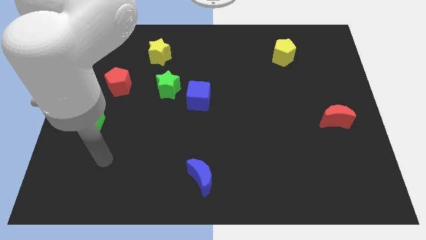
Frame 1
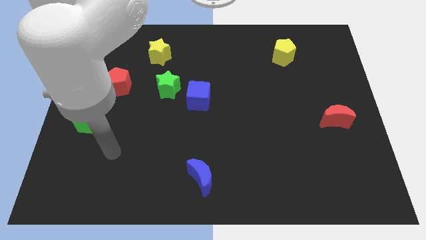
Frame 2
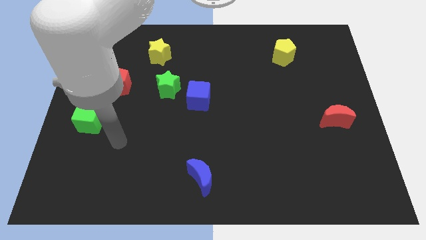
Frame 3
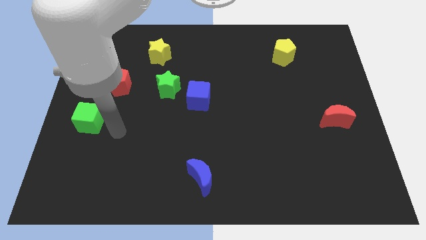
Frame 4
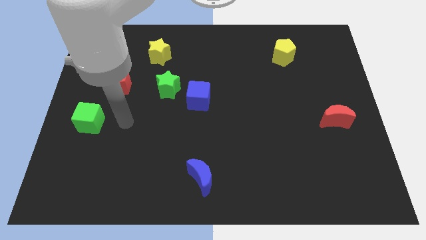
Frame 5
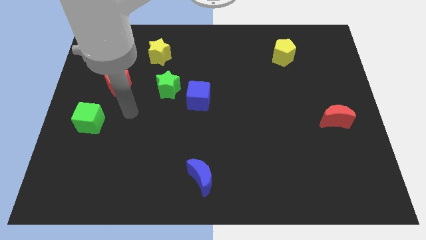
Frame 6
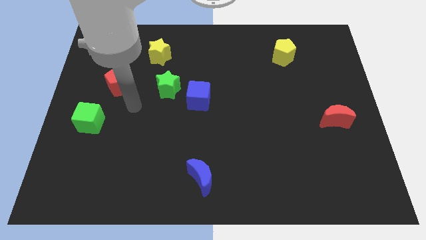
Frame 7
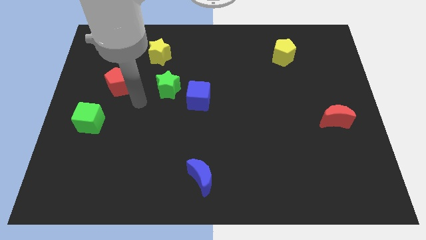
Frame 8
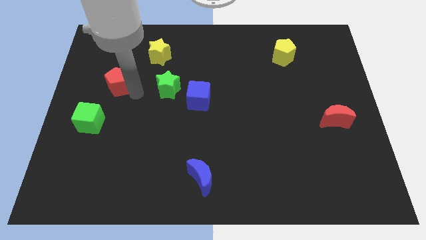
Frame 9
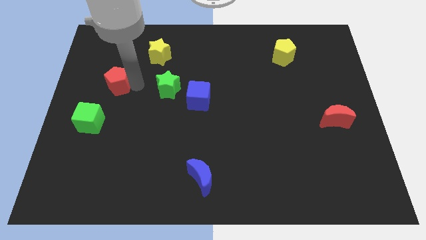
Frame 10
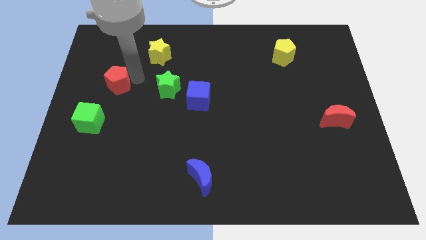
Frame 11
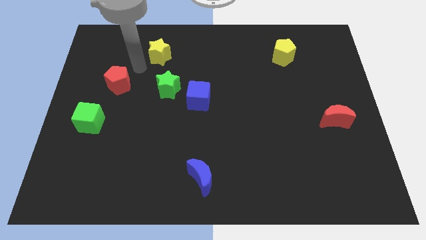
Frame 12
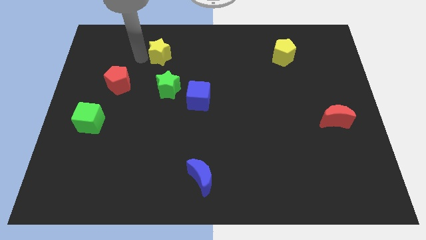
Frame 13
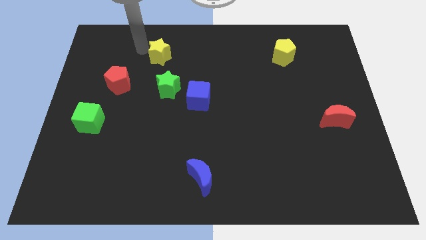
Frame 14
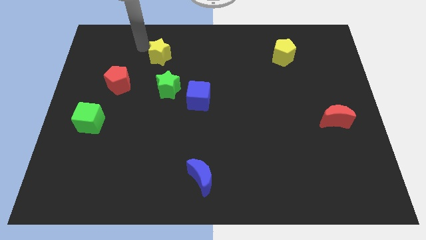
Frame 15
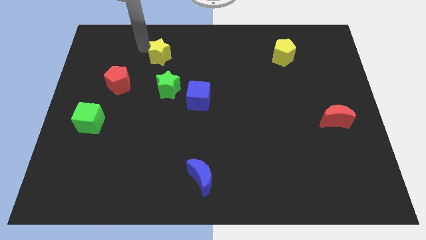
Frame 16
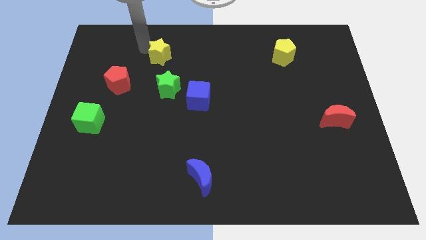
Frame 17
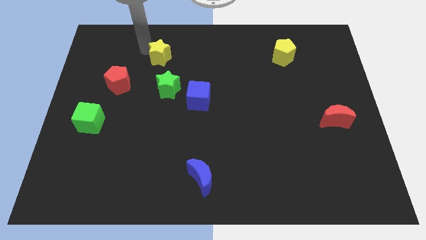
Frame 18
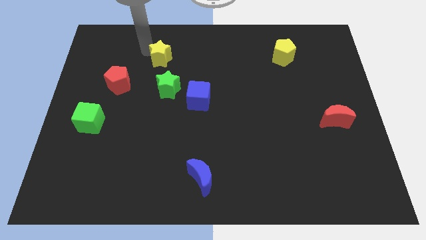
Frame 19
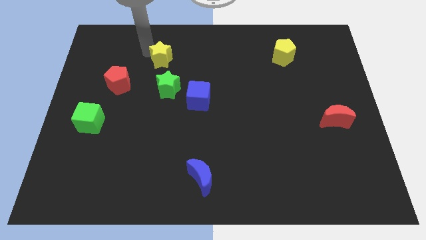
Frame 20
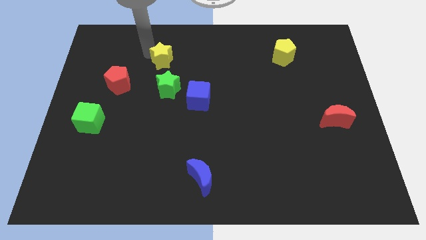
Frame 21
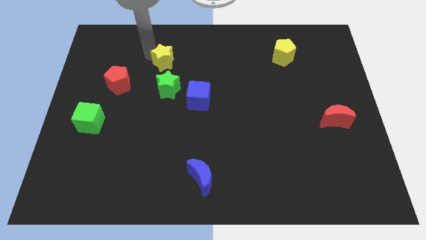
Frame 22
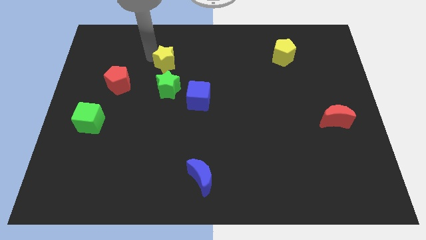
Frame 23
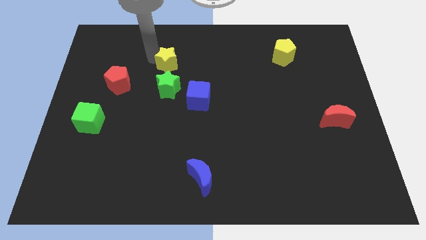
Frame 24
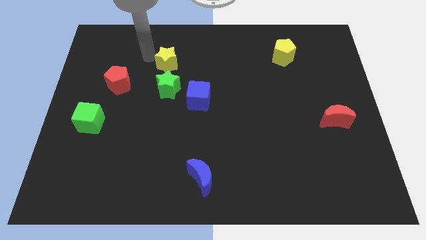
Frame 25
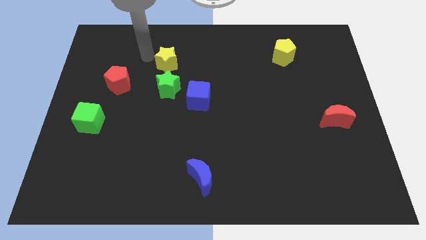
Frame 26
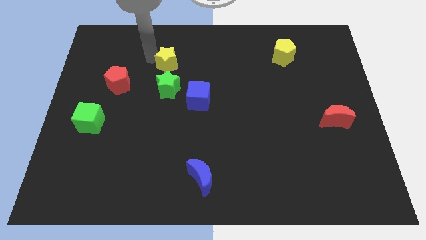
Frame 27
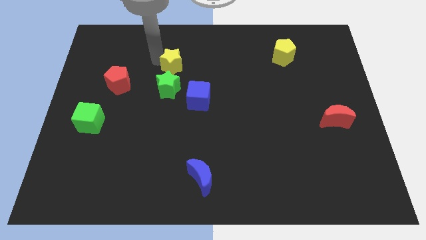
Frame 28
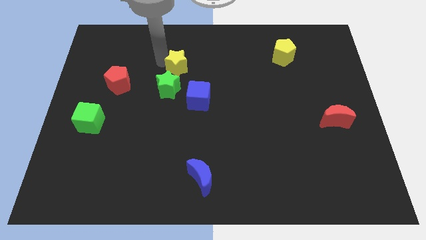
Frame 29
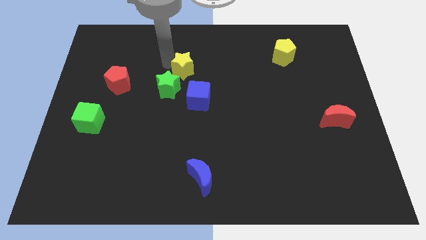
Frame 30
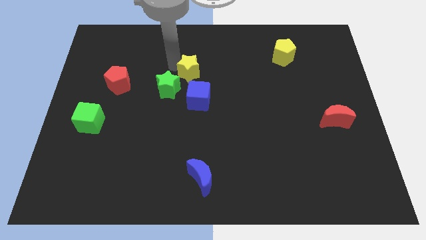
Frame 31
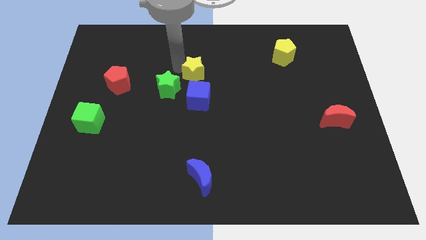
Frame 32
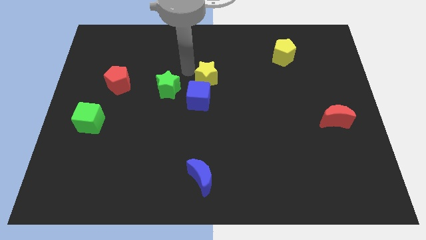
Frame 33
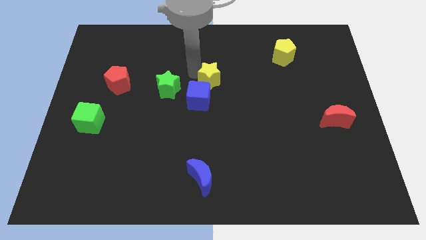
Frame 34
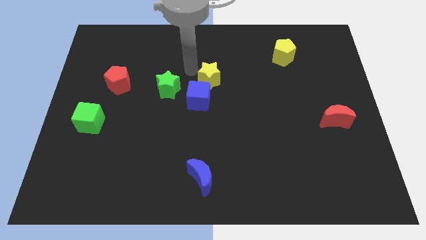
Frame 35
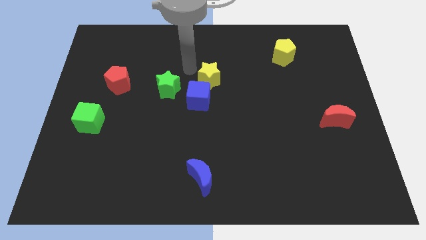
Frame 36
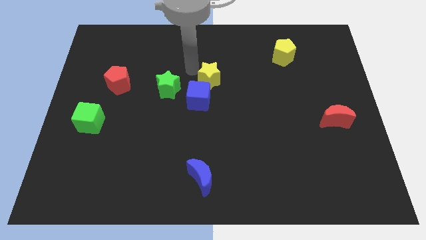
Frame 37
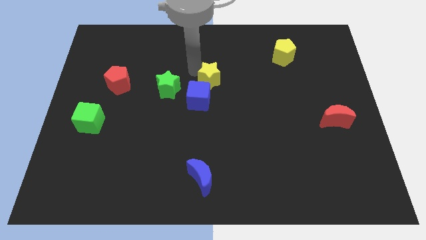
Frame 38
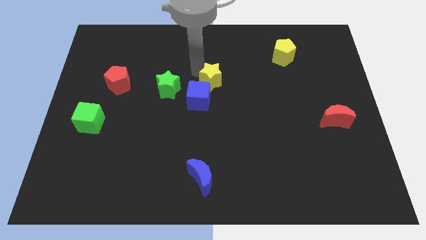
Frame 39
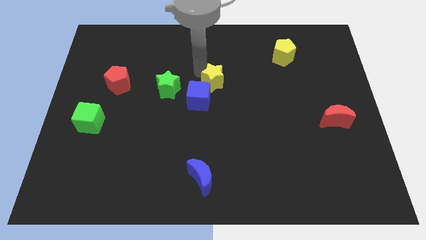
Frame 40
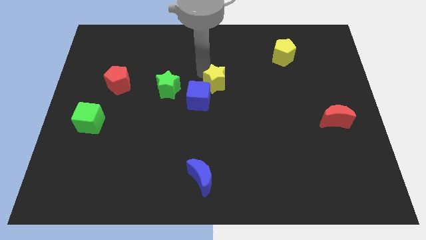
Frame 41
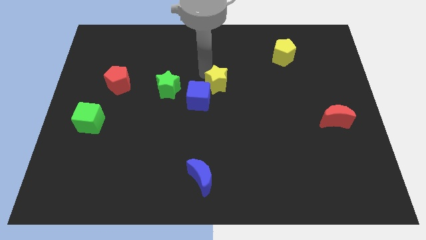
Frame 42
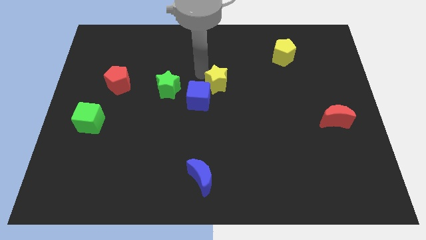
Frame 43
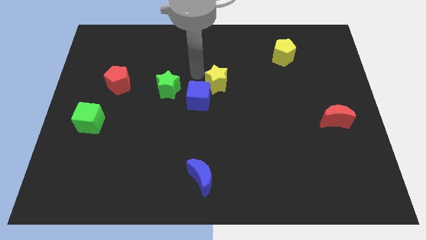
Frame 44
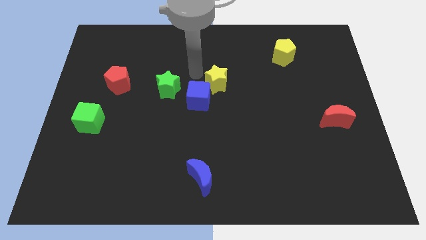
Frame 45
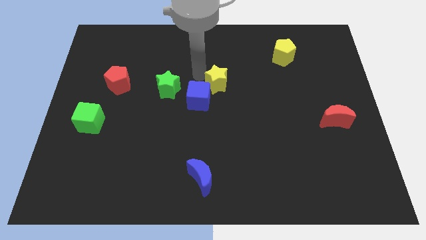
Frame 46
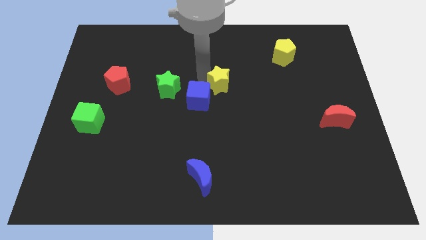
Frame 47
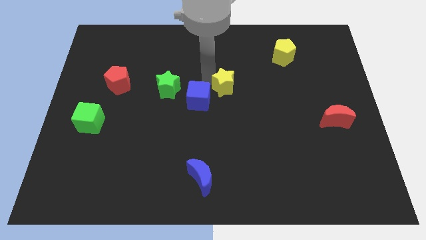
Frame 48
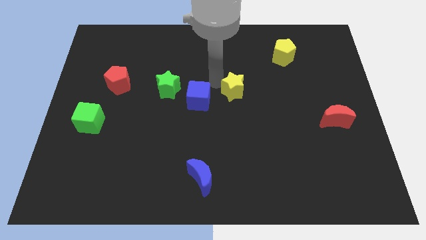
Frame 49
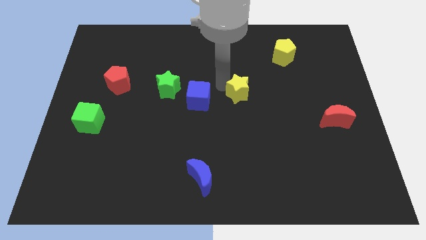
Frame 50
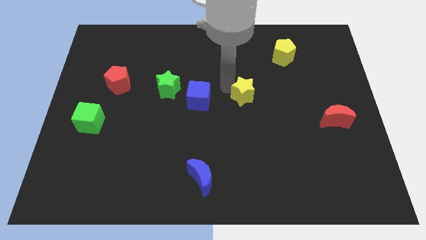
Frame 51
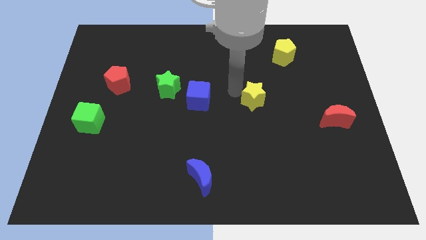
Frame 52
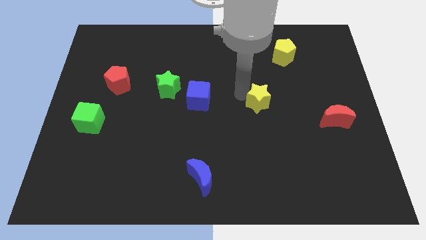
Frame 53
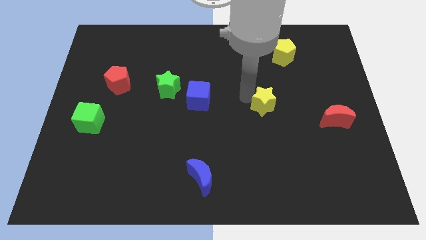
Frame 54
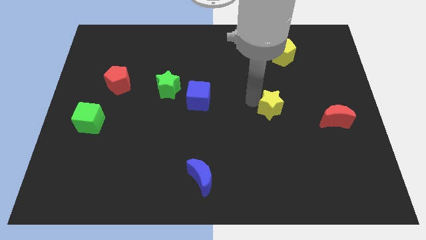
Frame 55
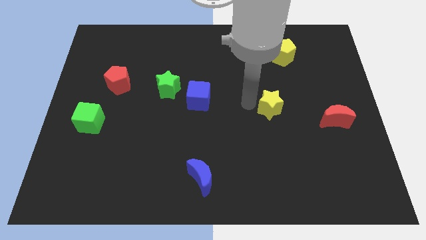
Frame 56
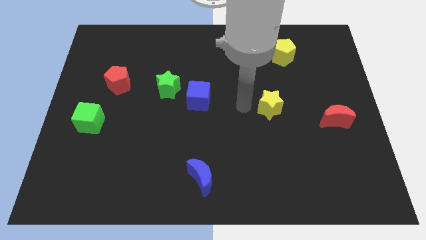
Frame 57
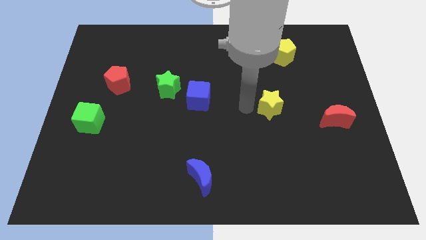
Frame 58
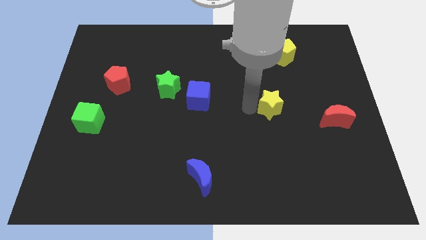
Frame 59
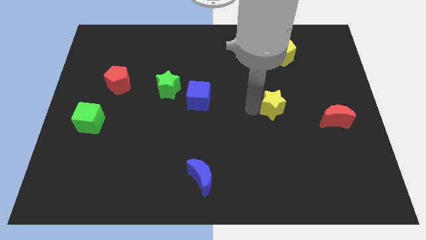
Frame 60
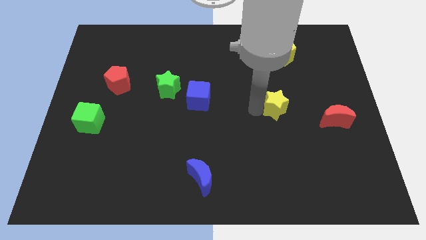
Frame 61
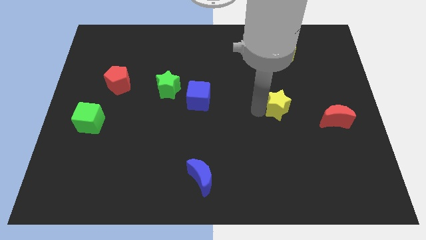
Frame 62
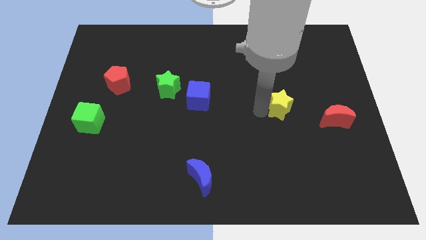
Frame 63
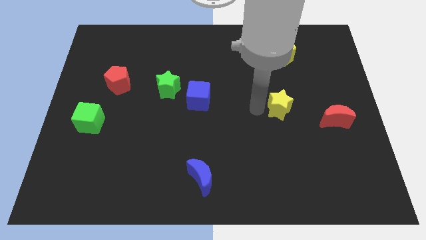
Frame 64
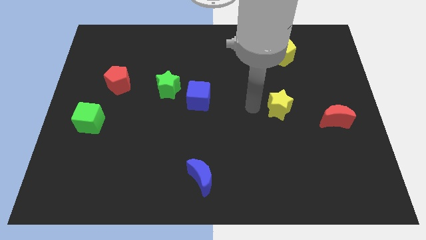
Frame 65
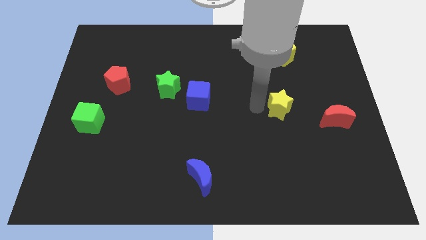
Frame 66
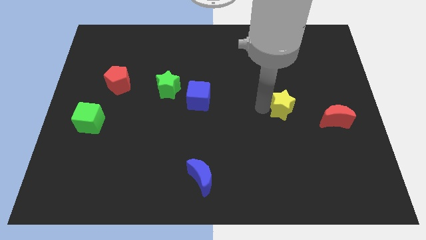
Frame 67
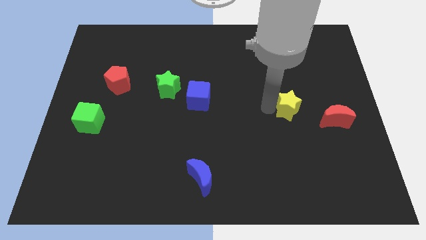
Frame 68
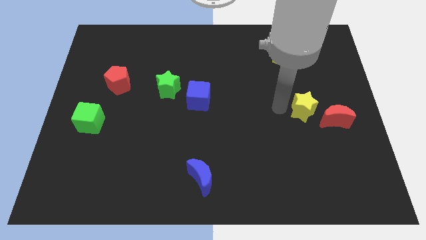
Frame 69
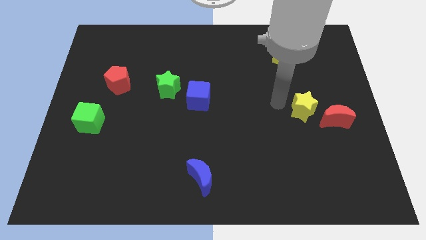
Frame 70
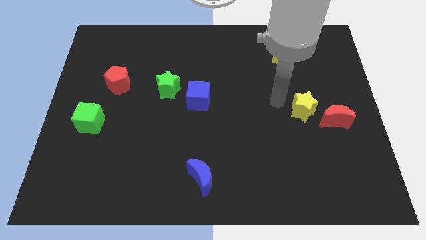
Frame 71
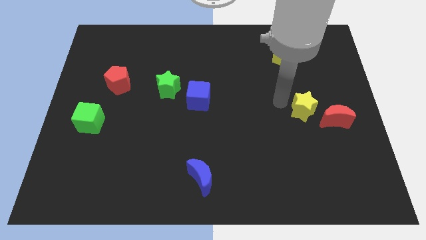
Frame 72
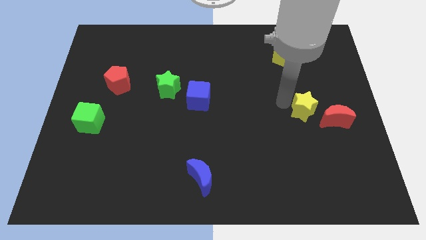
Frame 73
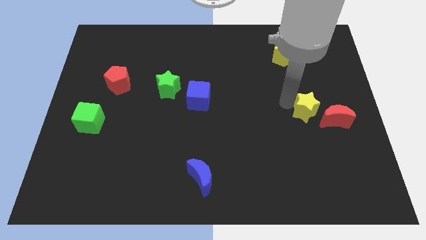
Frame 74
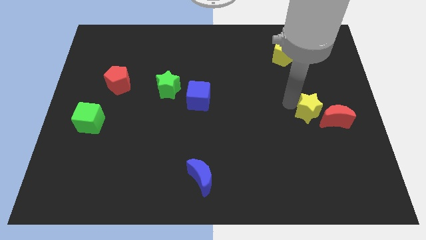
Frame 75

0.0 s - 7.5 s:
slide the yellow star to the red moon
